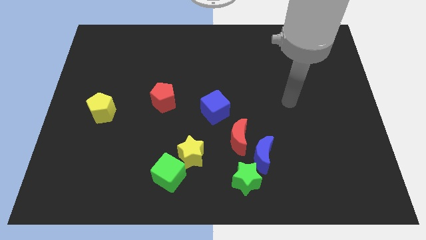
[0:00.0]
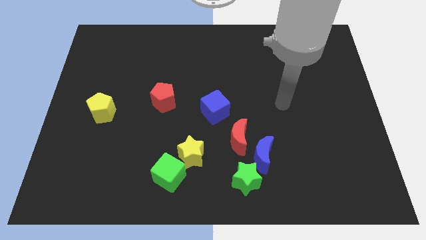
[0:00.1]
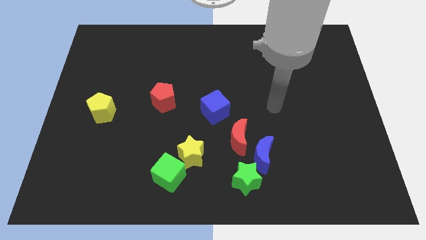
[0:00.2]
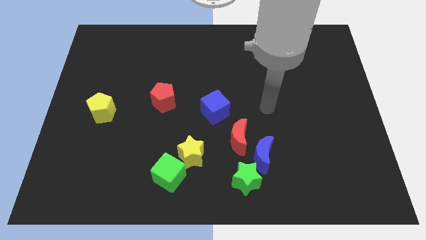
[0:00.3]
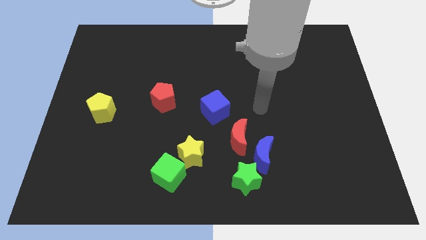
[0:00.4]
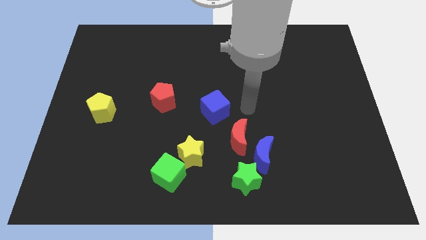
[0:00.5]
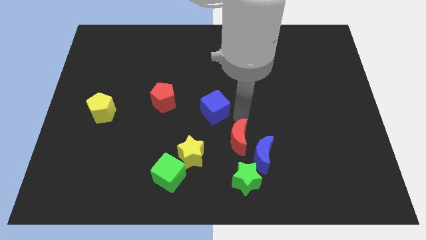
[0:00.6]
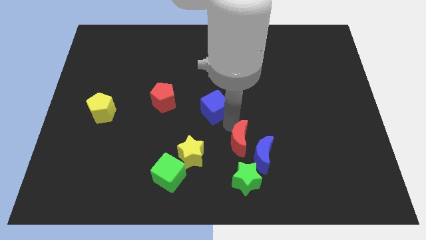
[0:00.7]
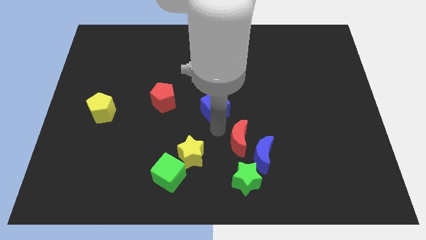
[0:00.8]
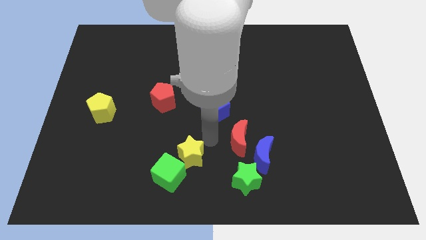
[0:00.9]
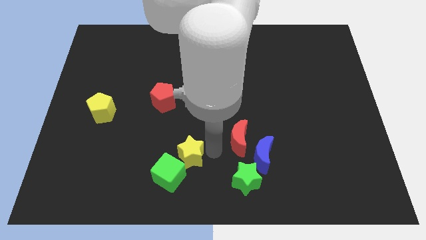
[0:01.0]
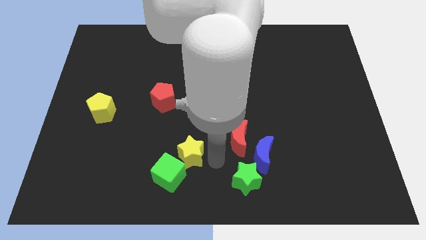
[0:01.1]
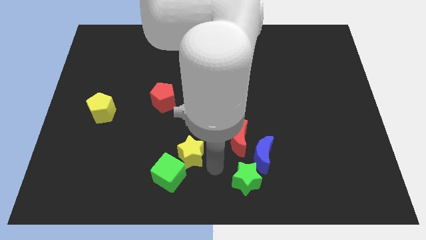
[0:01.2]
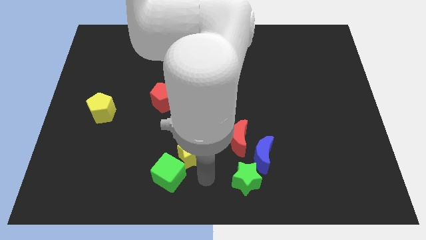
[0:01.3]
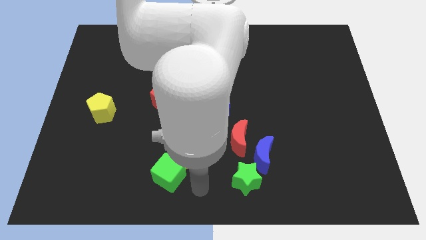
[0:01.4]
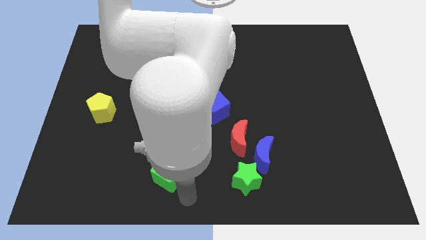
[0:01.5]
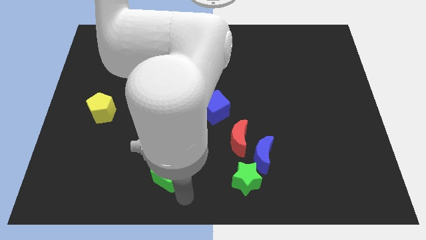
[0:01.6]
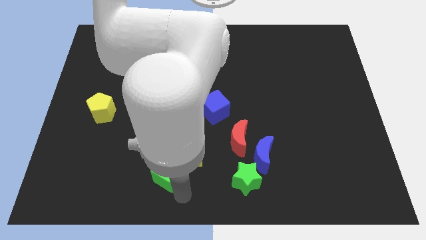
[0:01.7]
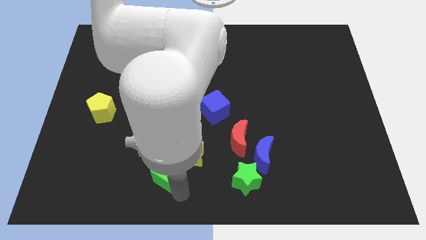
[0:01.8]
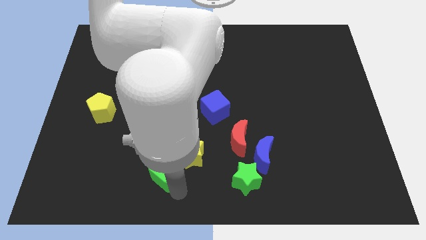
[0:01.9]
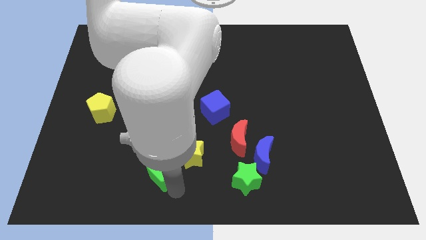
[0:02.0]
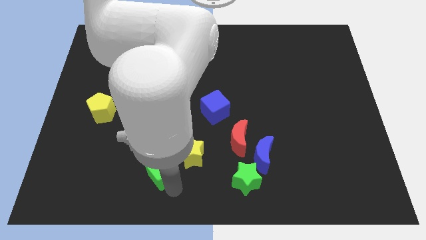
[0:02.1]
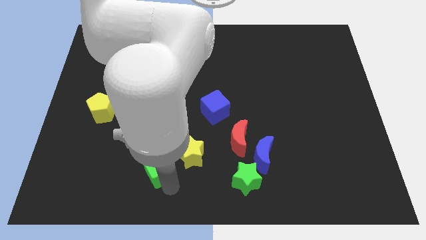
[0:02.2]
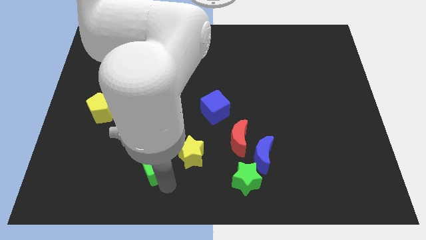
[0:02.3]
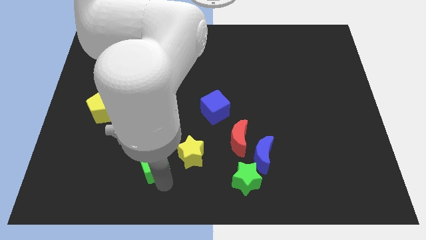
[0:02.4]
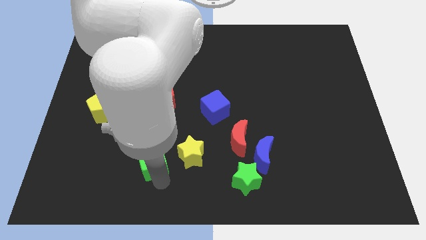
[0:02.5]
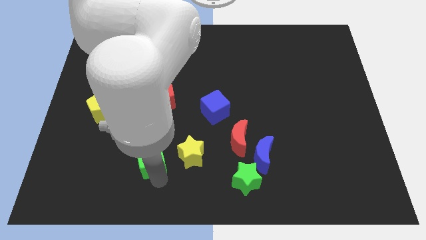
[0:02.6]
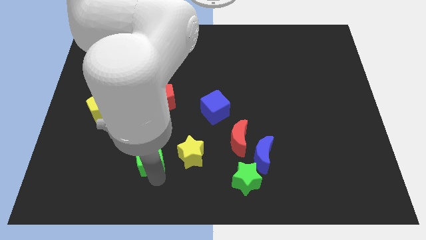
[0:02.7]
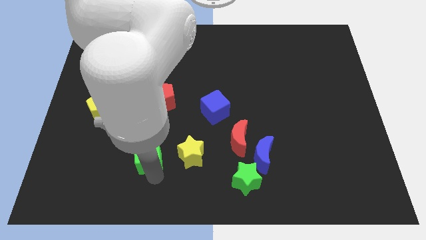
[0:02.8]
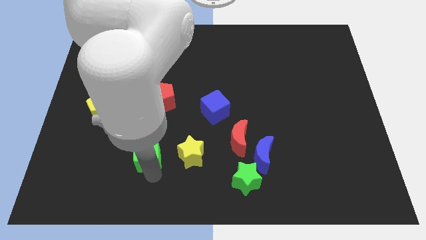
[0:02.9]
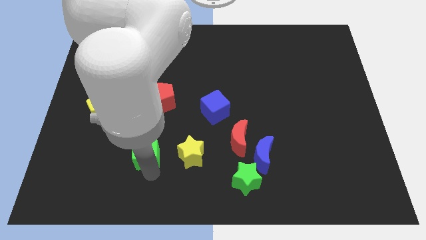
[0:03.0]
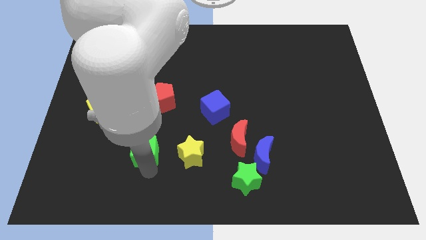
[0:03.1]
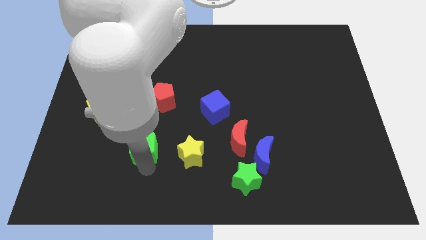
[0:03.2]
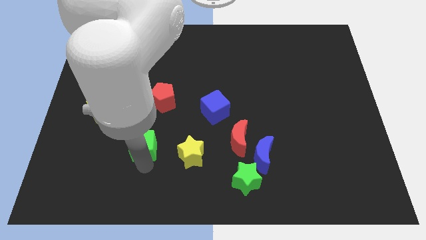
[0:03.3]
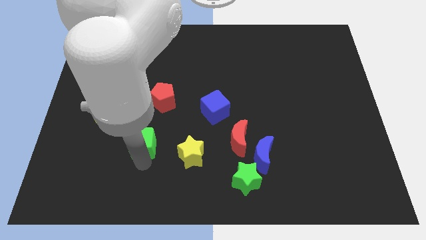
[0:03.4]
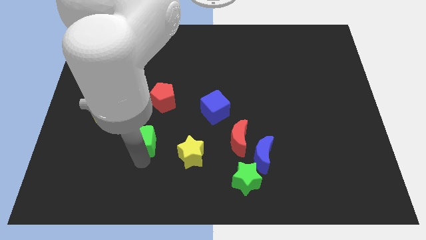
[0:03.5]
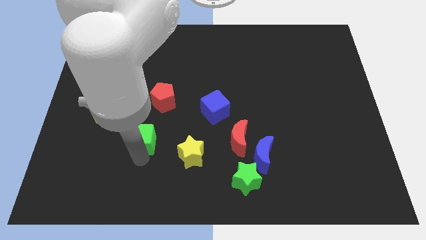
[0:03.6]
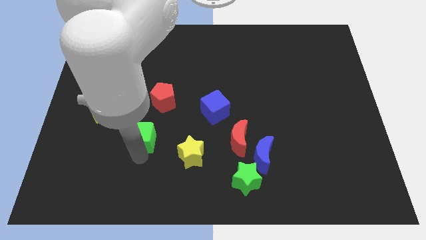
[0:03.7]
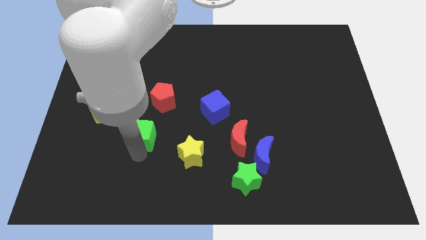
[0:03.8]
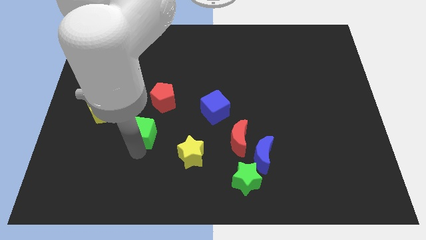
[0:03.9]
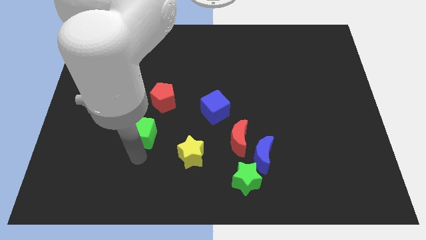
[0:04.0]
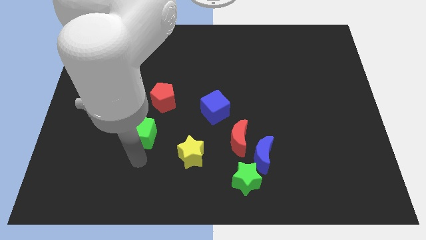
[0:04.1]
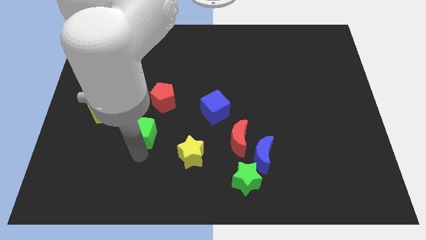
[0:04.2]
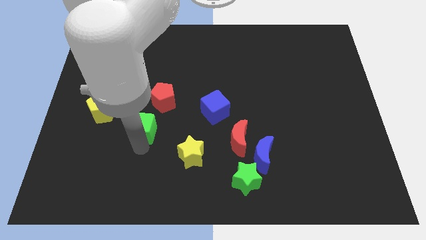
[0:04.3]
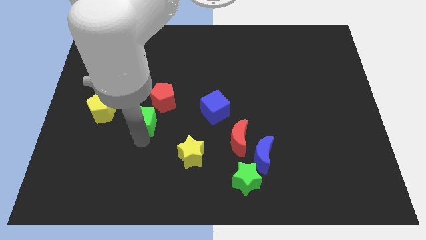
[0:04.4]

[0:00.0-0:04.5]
put the green cube to the right side of the yellow pentagon

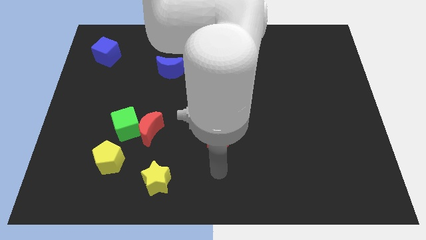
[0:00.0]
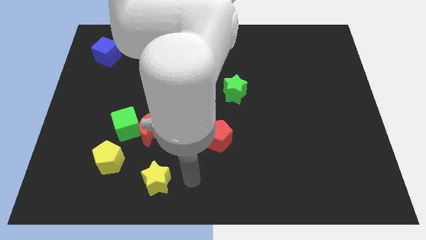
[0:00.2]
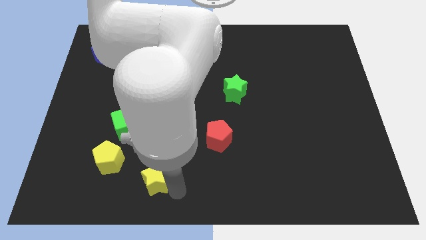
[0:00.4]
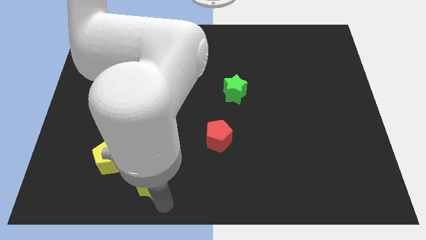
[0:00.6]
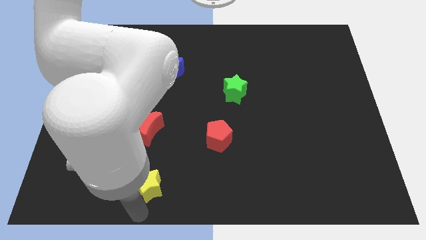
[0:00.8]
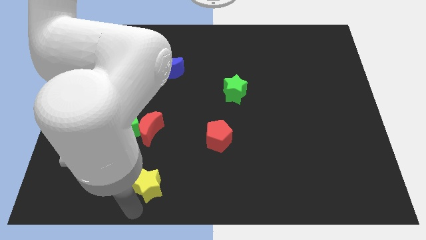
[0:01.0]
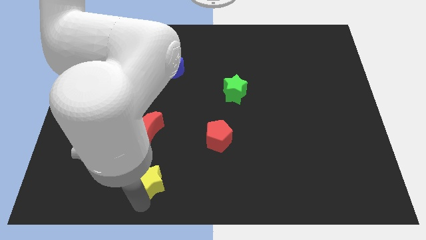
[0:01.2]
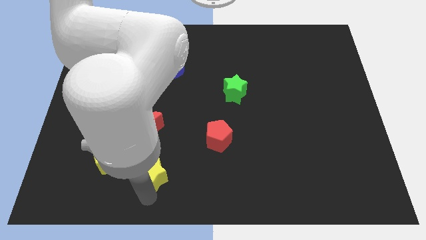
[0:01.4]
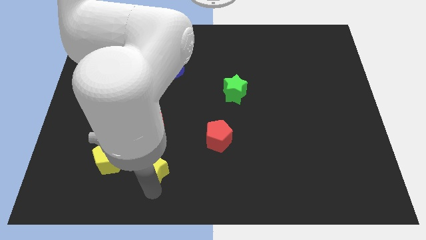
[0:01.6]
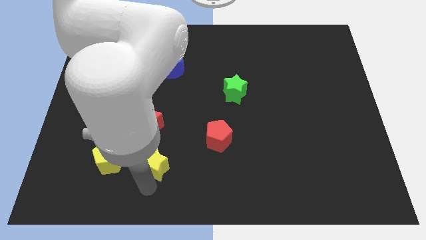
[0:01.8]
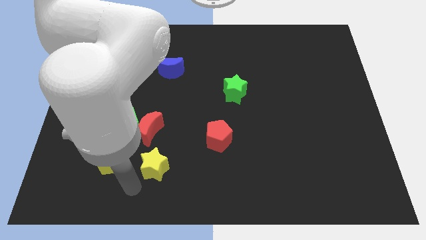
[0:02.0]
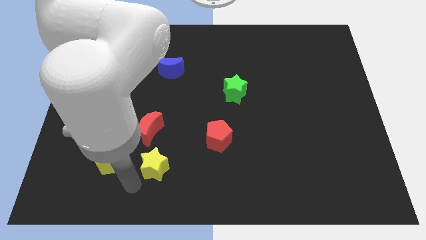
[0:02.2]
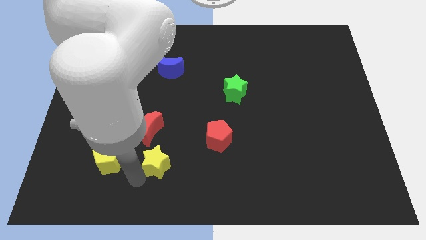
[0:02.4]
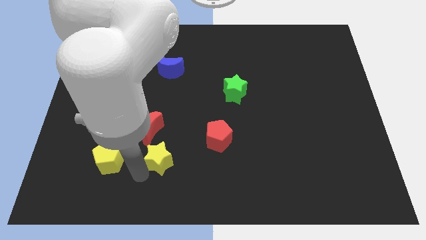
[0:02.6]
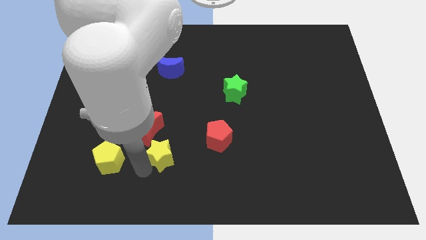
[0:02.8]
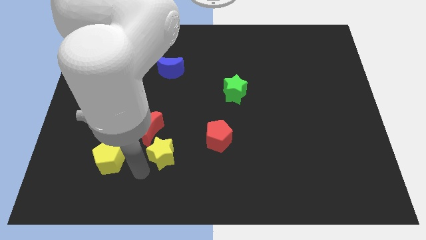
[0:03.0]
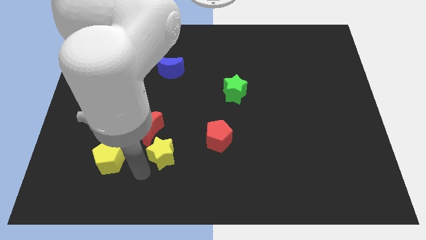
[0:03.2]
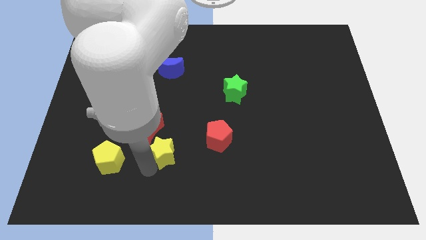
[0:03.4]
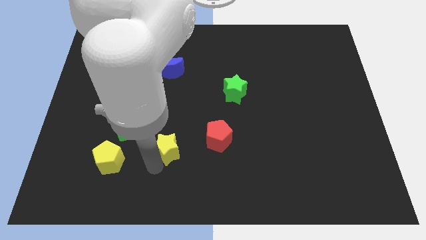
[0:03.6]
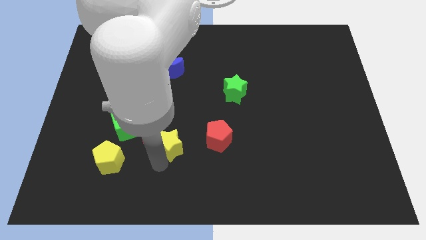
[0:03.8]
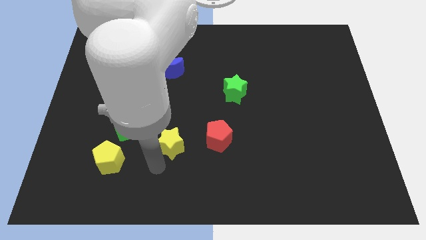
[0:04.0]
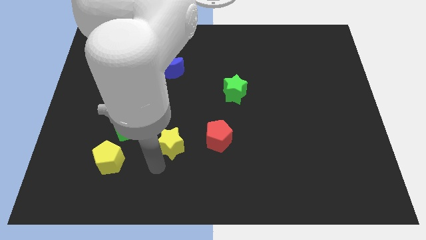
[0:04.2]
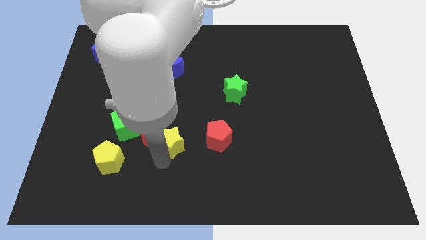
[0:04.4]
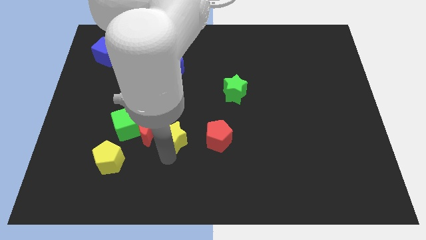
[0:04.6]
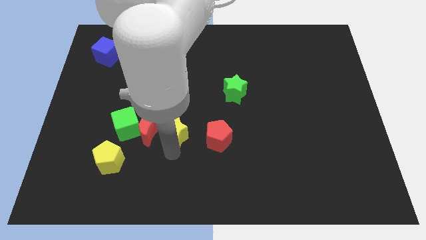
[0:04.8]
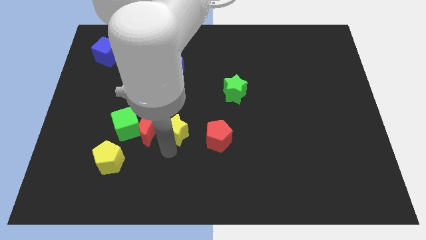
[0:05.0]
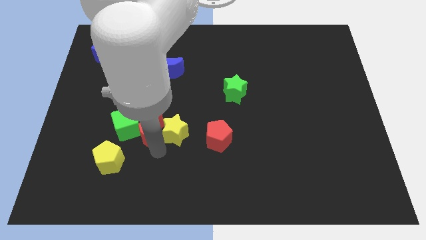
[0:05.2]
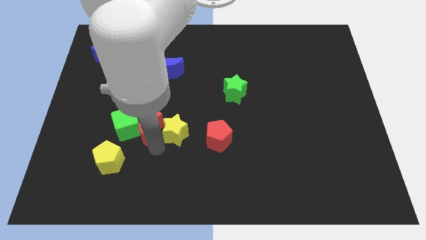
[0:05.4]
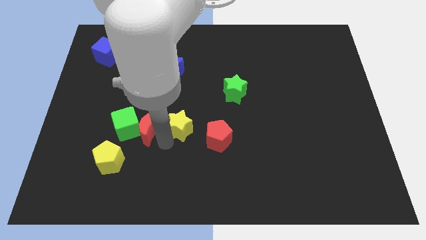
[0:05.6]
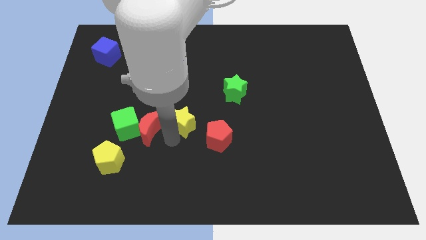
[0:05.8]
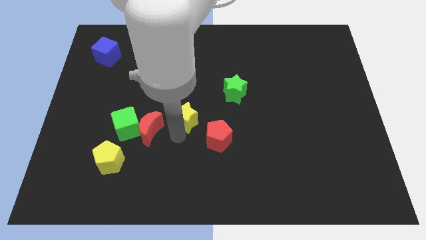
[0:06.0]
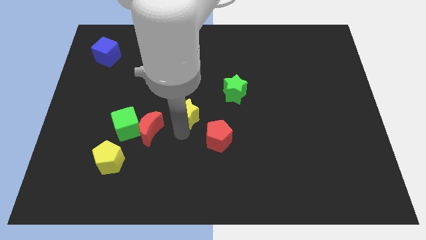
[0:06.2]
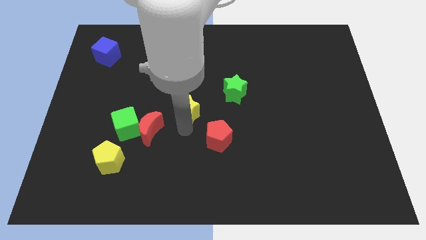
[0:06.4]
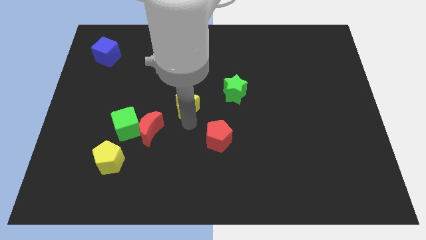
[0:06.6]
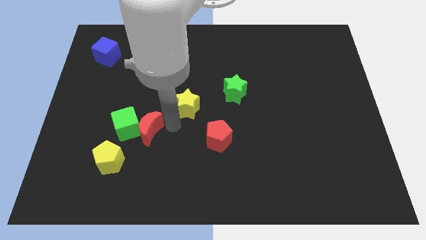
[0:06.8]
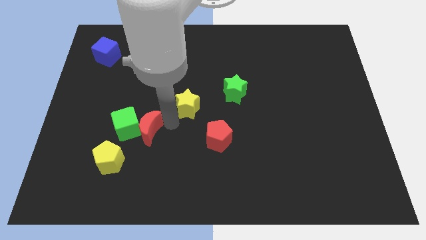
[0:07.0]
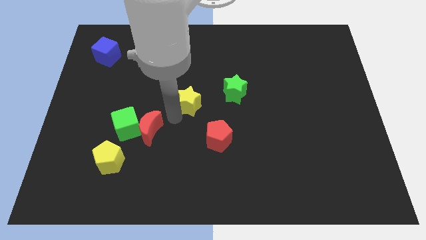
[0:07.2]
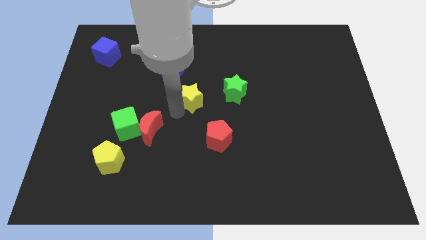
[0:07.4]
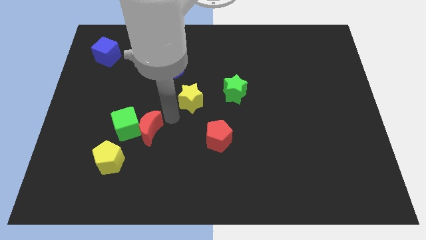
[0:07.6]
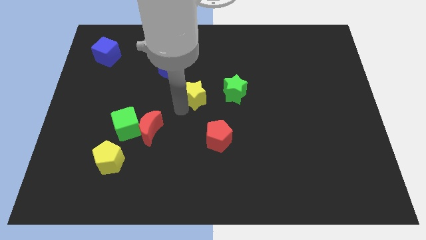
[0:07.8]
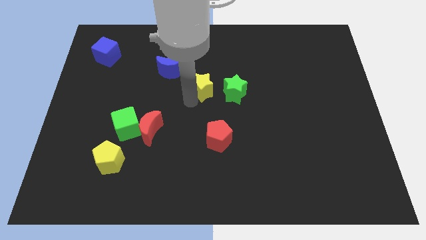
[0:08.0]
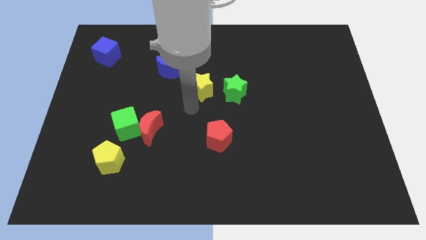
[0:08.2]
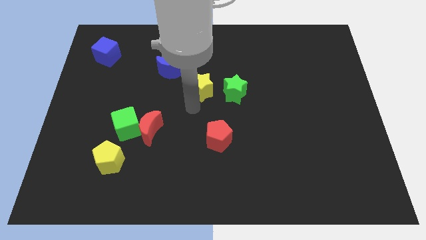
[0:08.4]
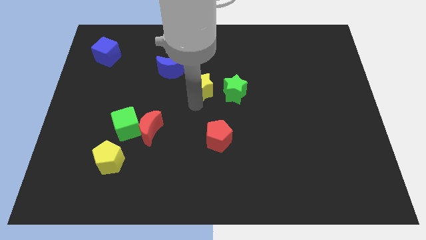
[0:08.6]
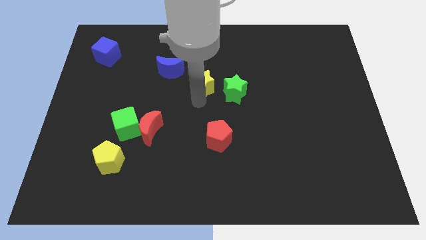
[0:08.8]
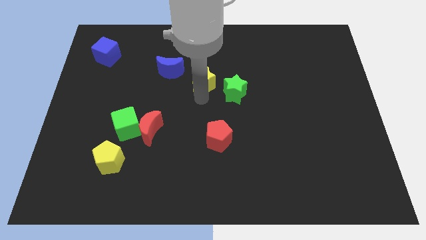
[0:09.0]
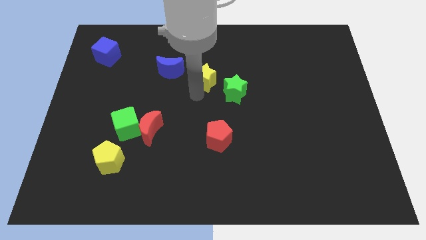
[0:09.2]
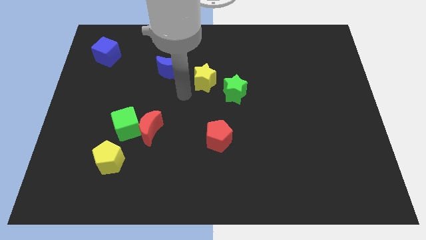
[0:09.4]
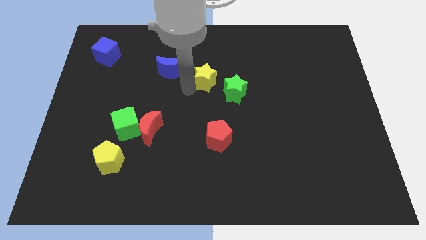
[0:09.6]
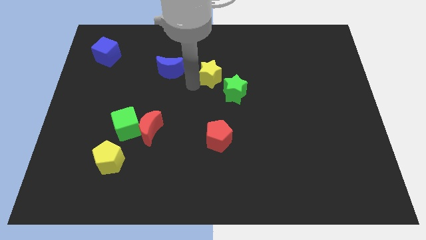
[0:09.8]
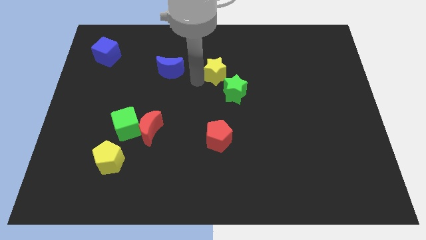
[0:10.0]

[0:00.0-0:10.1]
put the yellow star to the top of the green star
